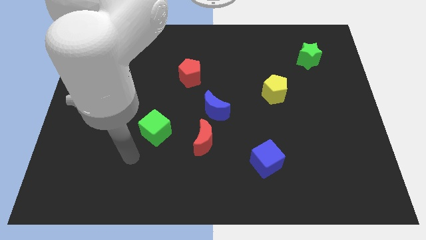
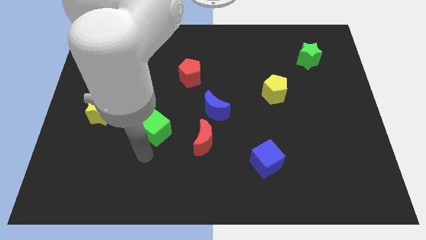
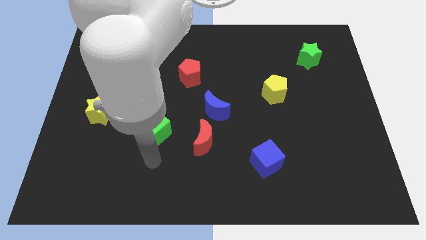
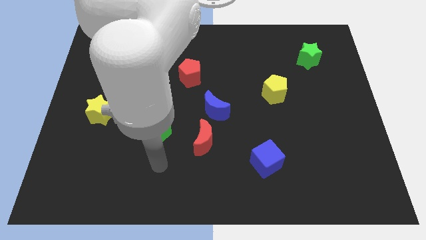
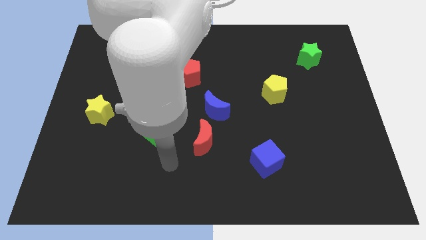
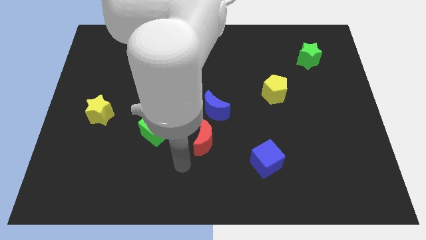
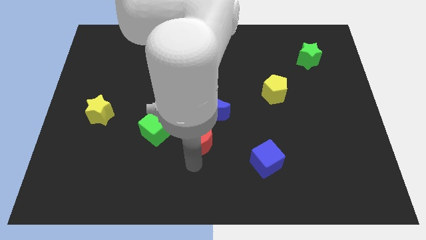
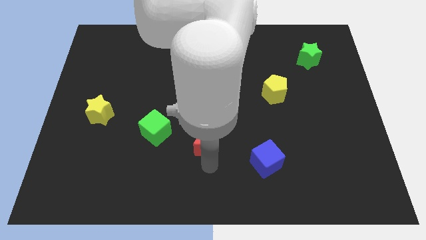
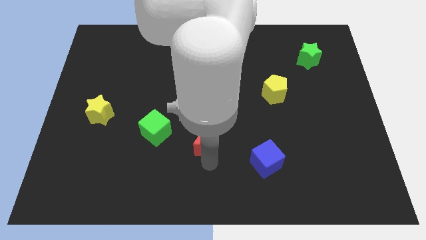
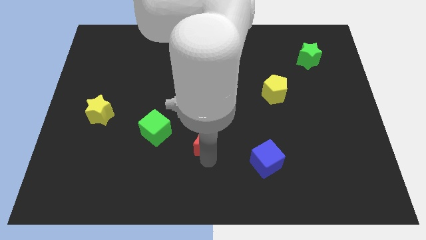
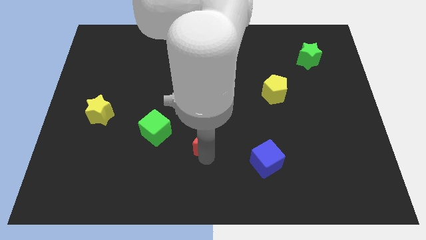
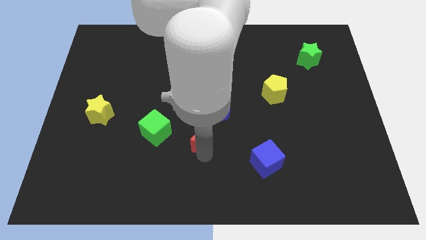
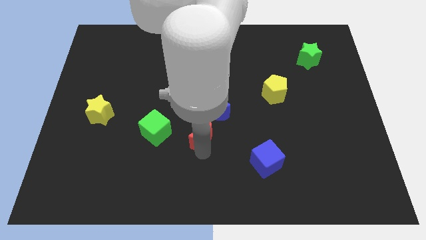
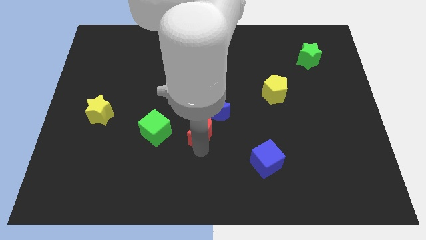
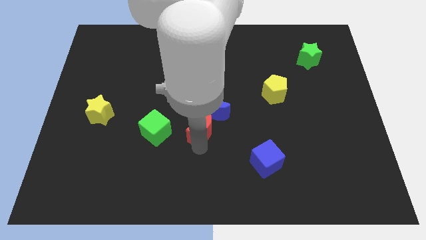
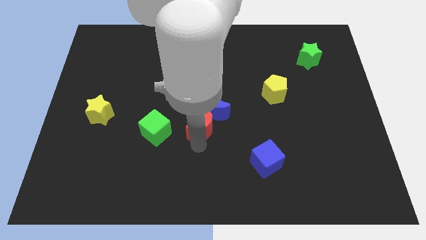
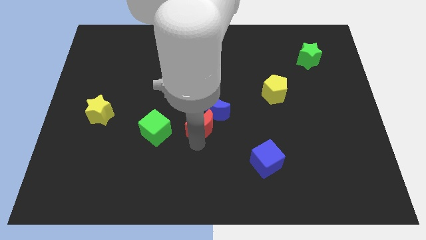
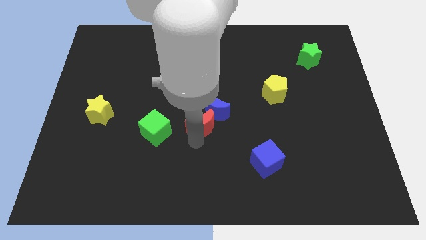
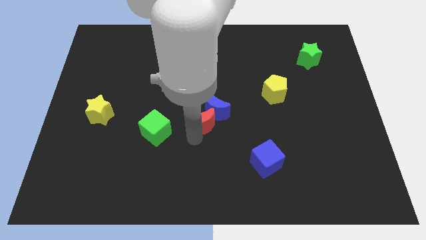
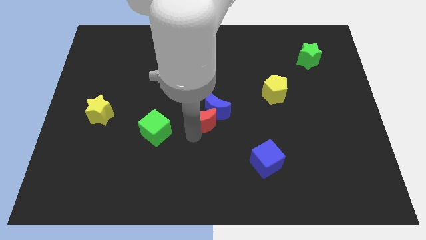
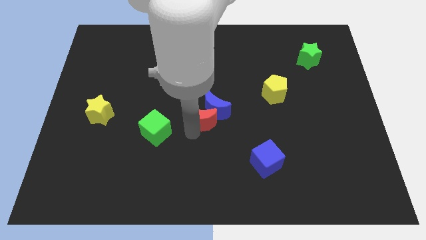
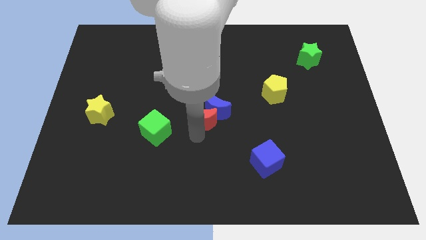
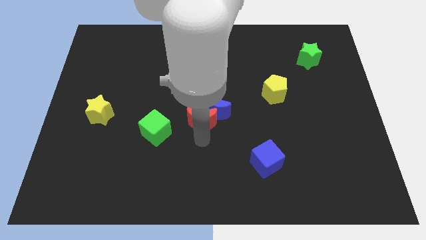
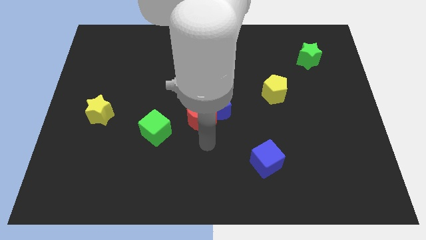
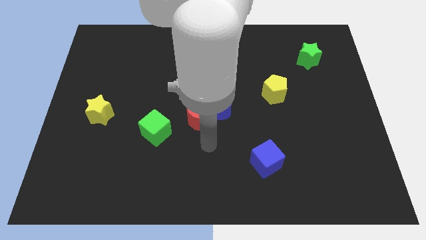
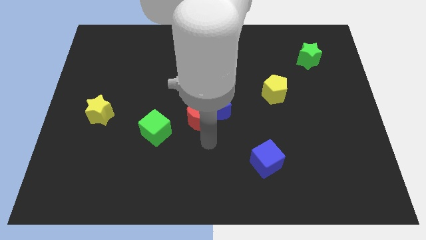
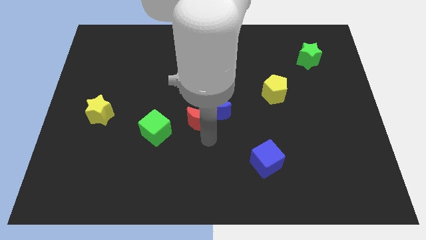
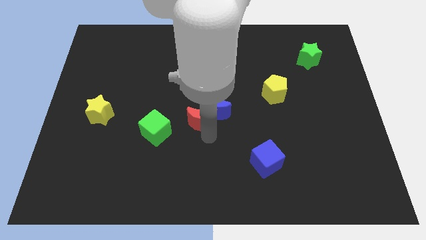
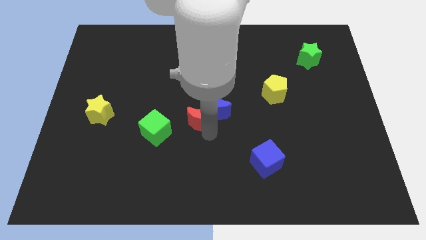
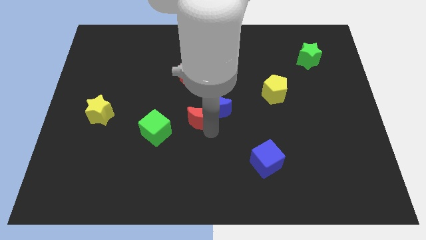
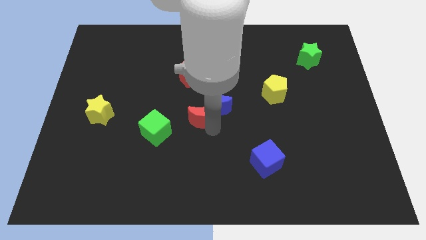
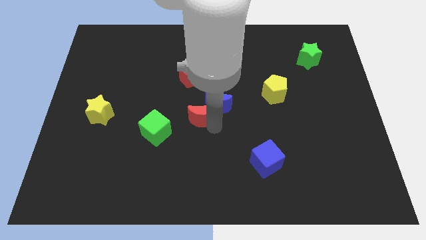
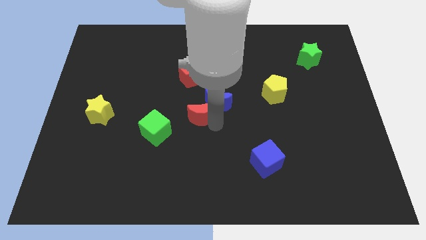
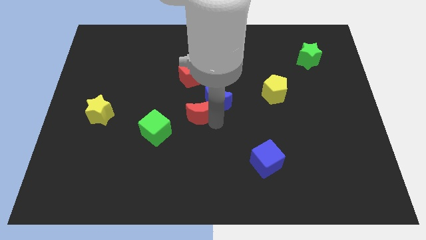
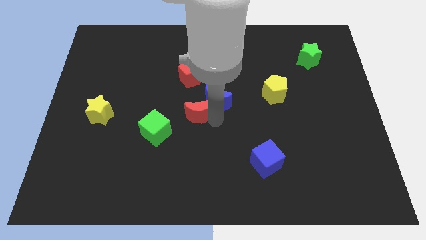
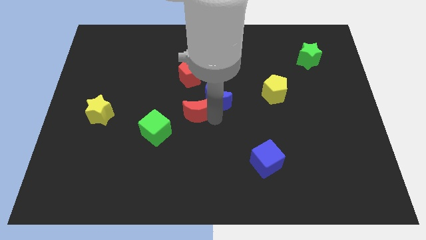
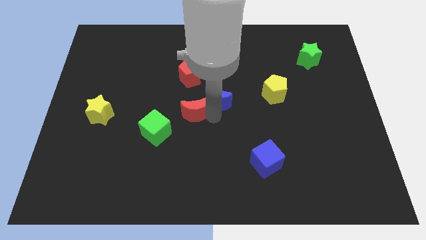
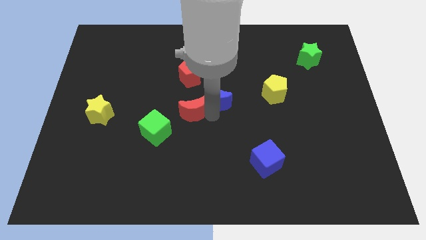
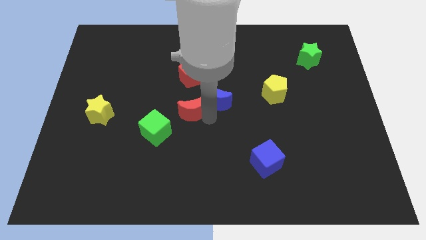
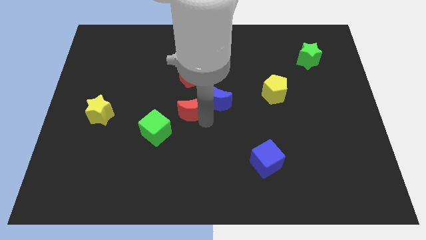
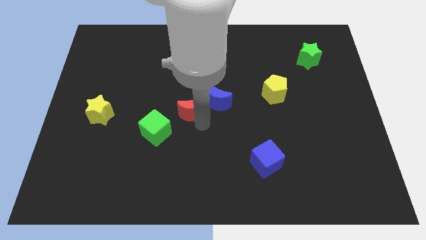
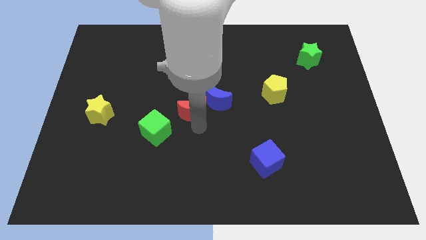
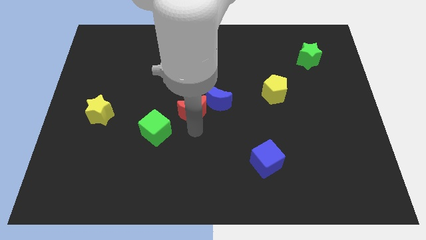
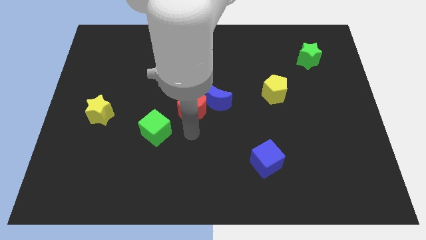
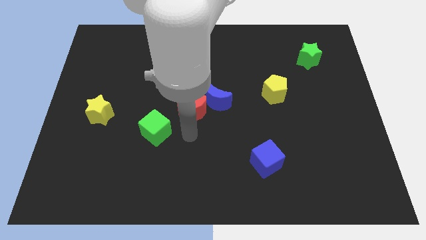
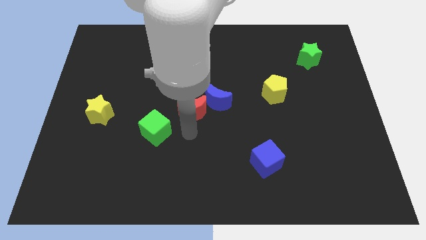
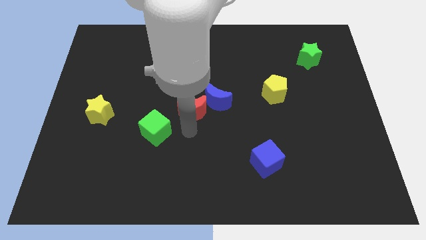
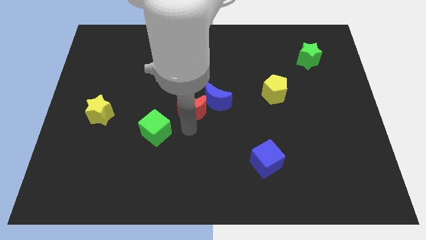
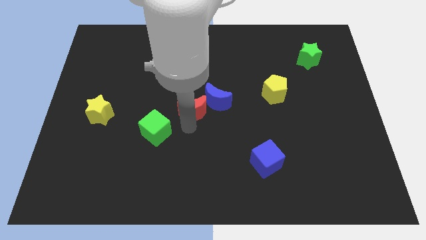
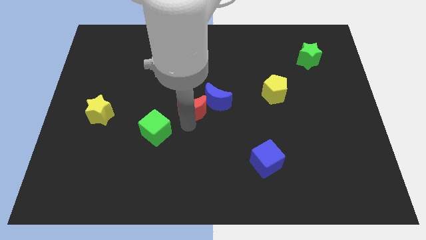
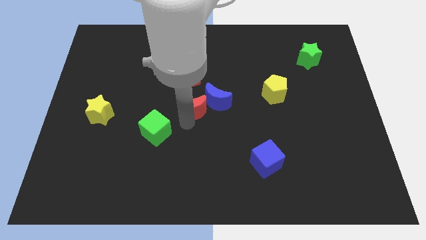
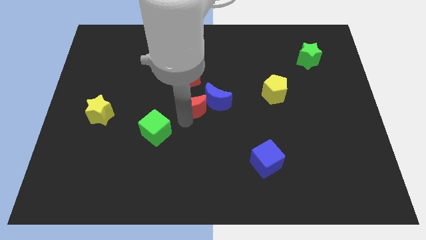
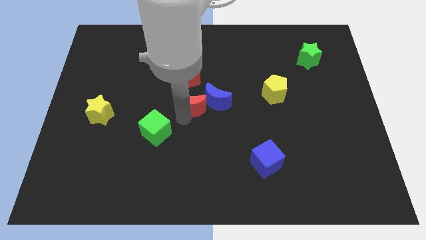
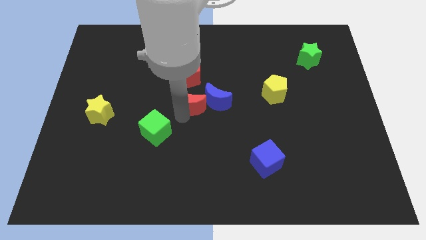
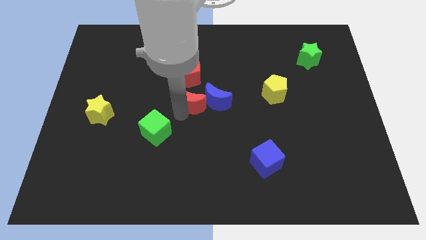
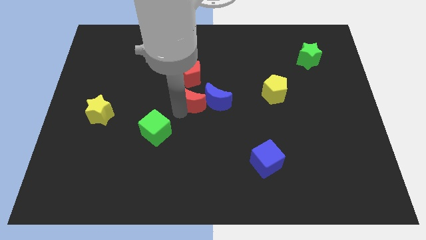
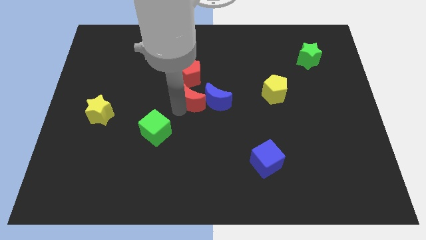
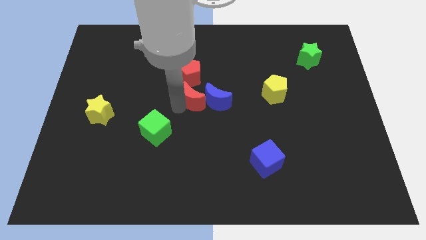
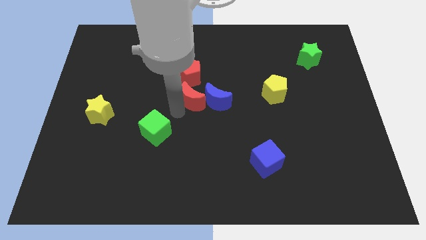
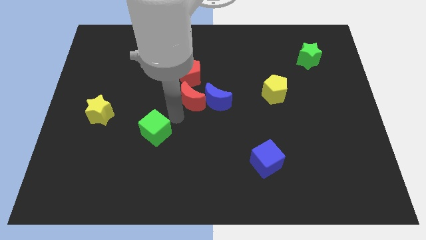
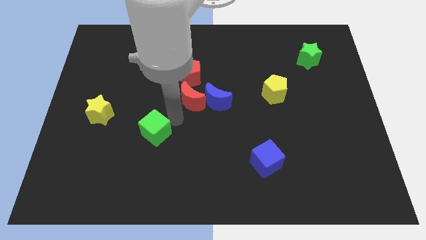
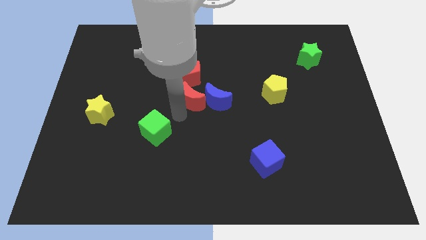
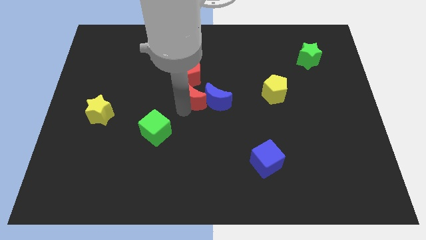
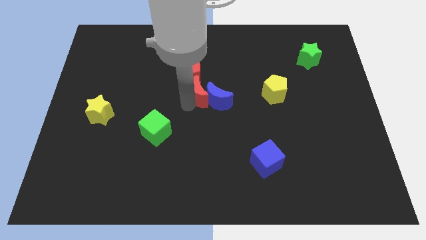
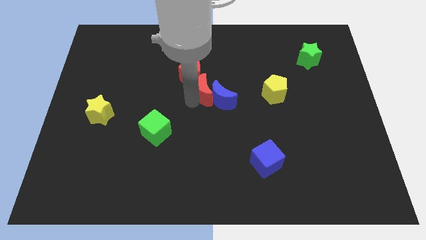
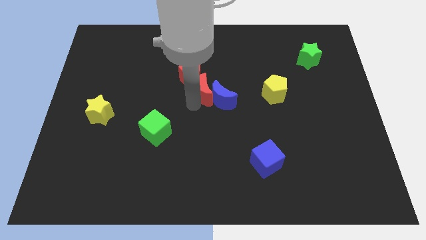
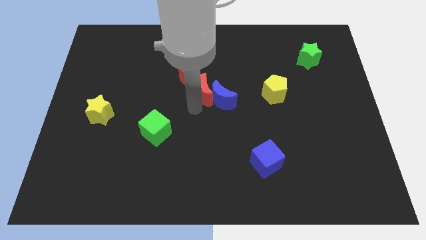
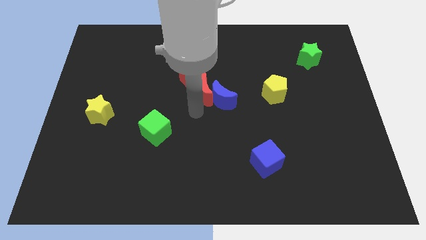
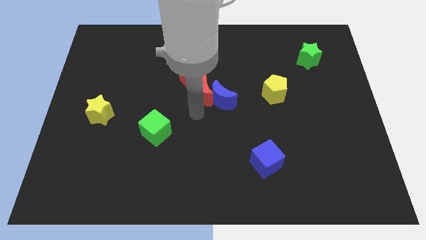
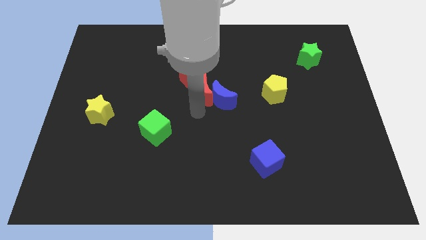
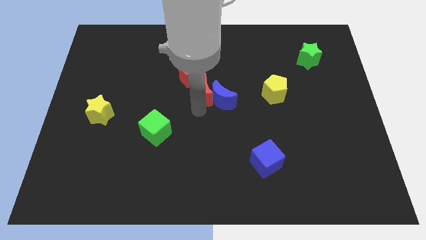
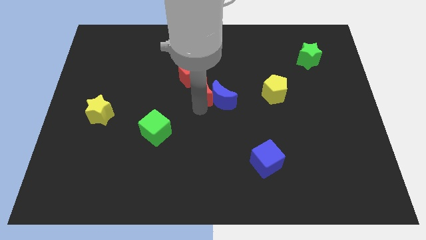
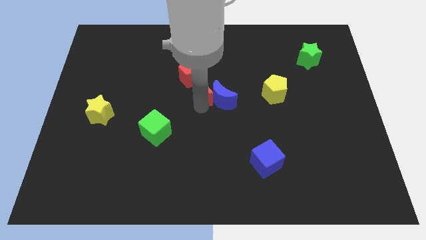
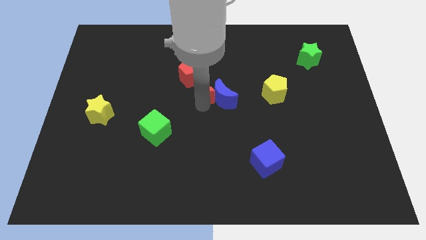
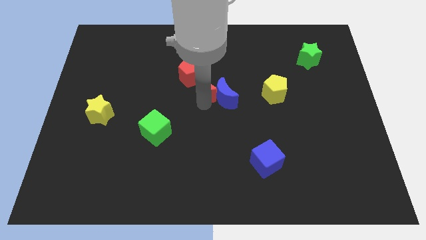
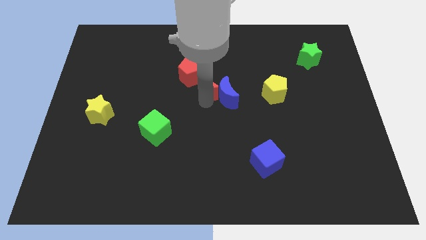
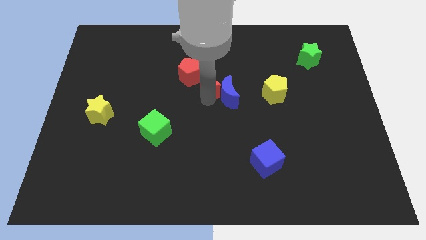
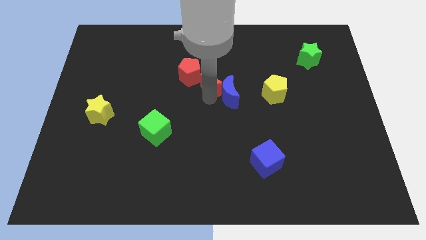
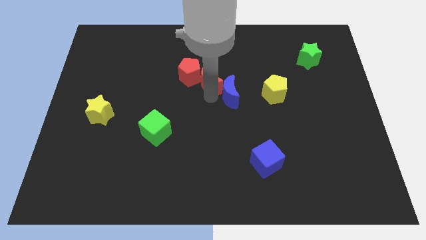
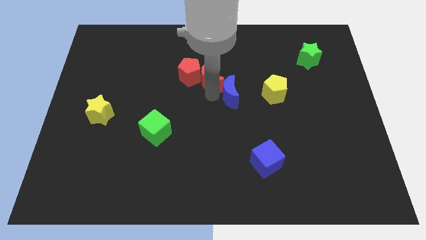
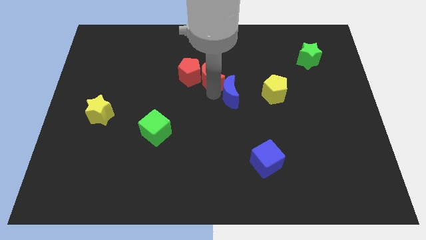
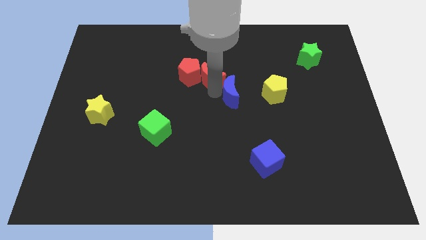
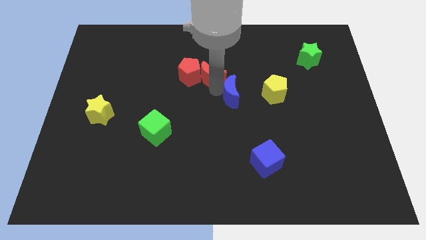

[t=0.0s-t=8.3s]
put the red moon to the top right side of the red pentagon
